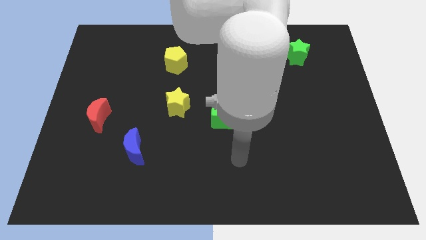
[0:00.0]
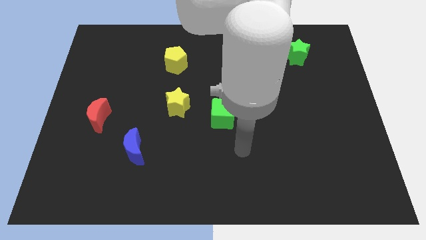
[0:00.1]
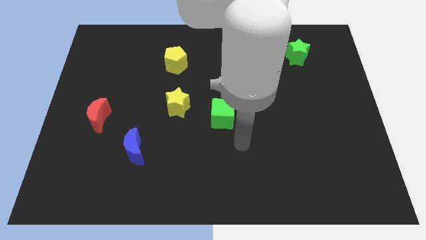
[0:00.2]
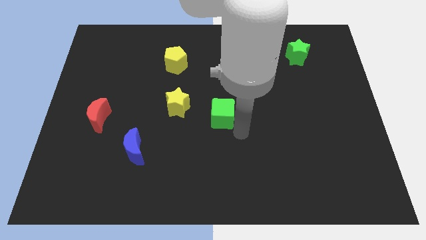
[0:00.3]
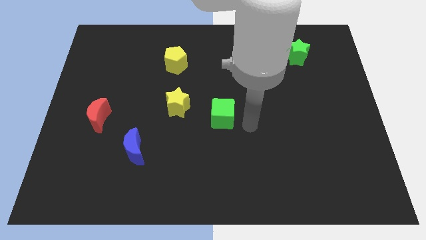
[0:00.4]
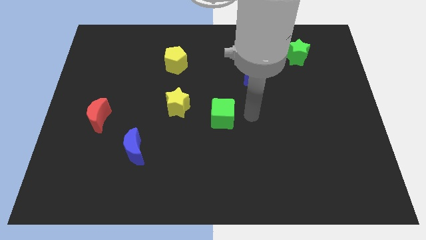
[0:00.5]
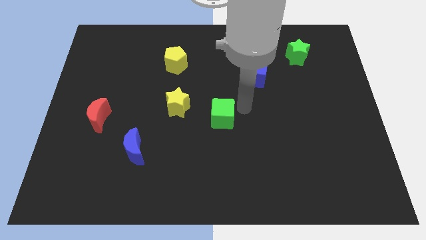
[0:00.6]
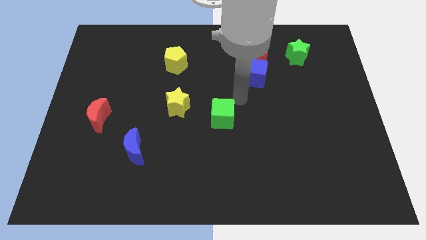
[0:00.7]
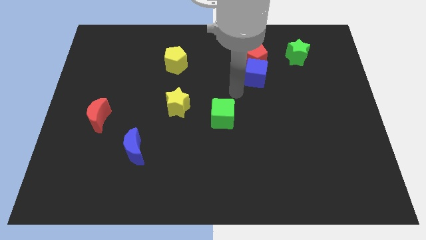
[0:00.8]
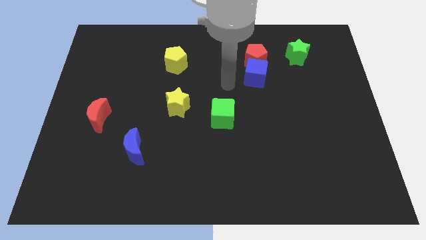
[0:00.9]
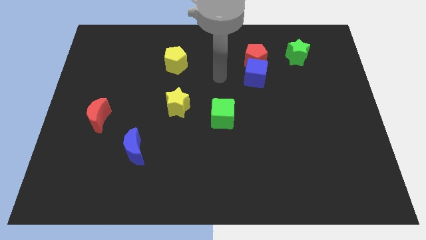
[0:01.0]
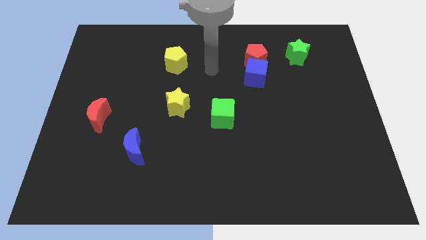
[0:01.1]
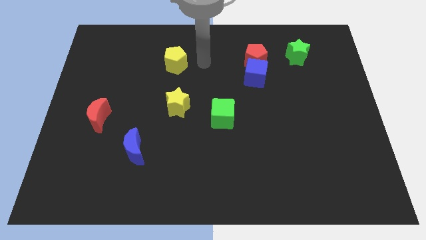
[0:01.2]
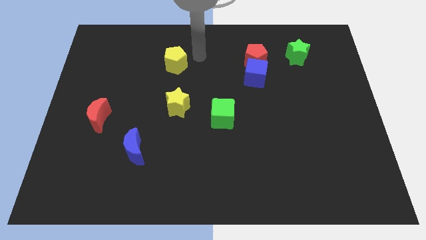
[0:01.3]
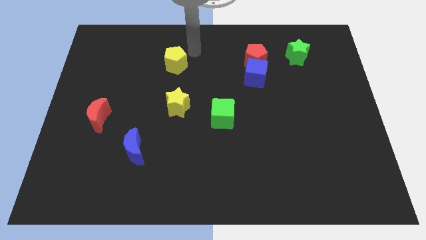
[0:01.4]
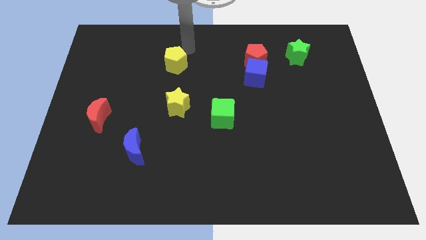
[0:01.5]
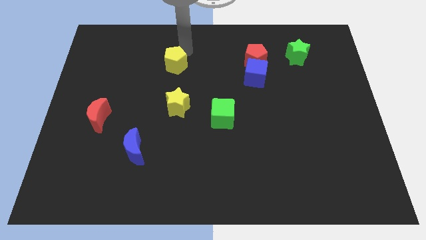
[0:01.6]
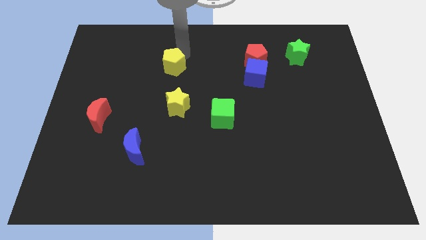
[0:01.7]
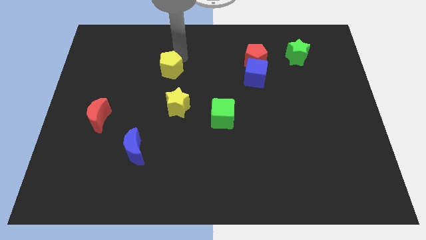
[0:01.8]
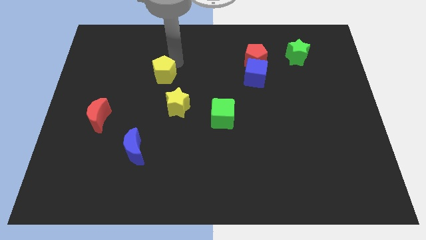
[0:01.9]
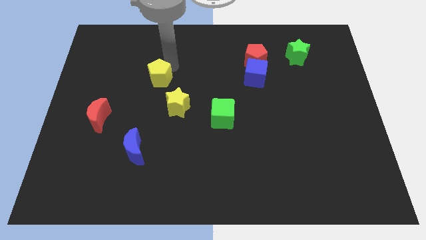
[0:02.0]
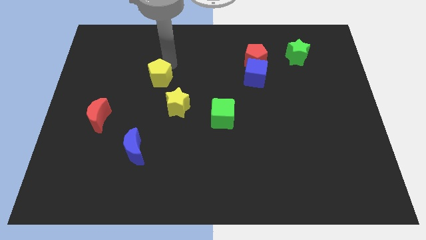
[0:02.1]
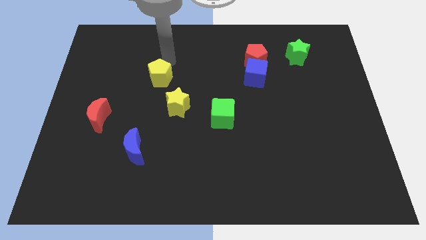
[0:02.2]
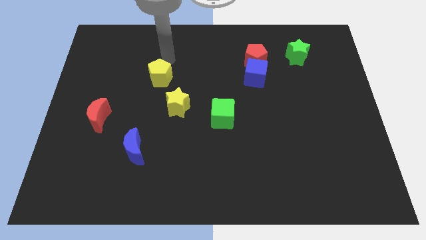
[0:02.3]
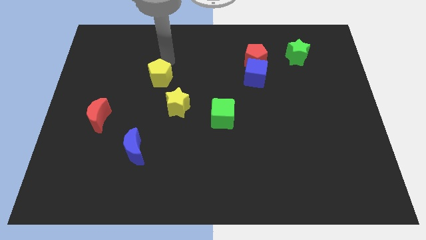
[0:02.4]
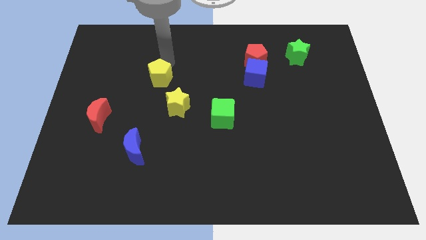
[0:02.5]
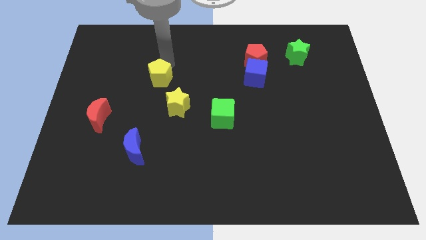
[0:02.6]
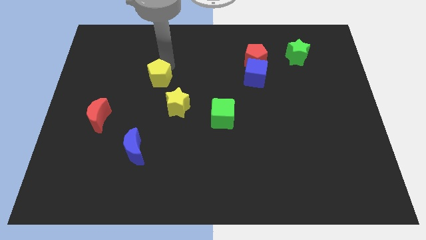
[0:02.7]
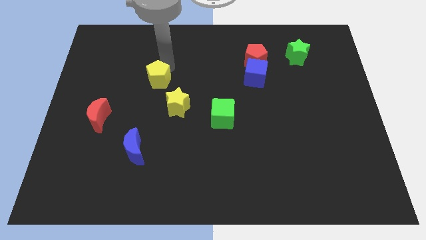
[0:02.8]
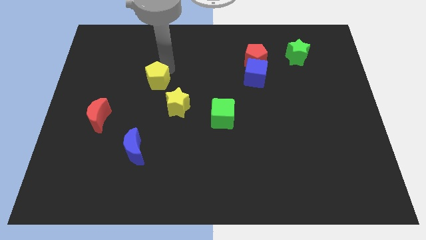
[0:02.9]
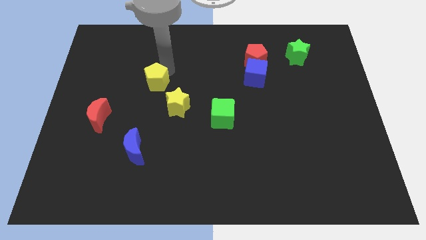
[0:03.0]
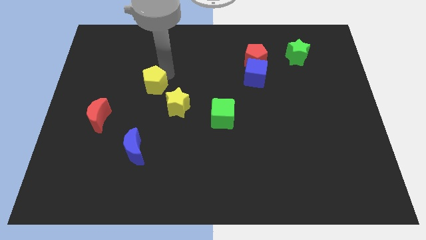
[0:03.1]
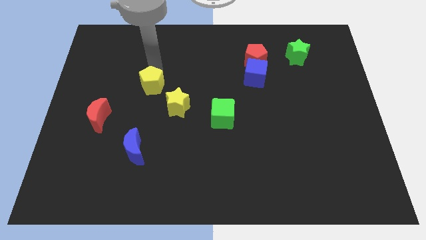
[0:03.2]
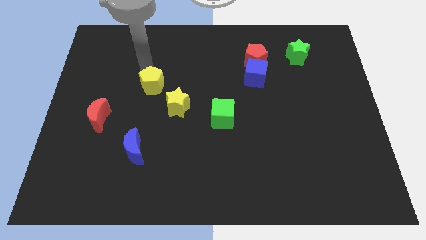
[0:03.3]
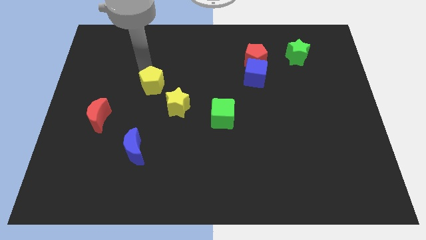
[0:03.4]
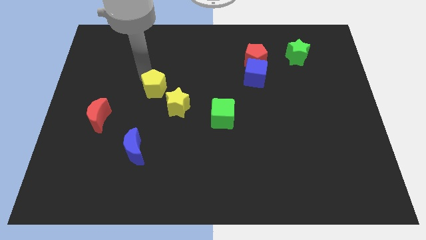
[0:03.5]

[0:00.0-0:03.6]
move the yellow pentagon a little downwards

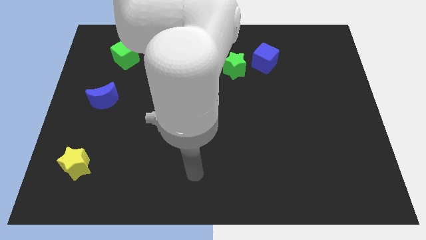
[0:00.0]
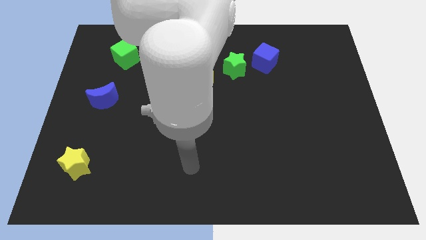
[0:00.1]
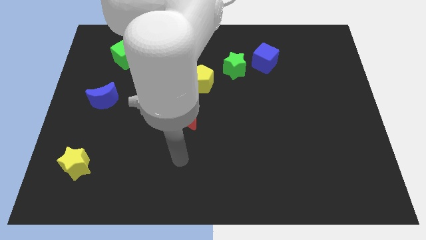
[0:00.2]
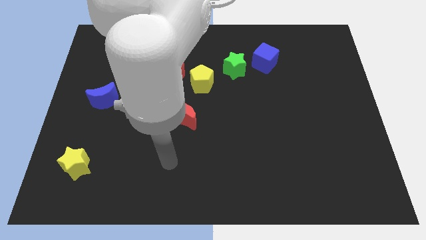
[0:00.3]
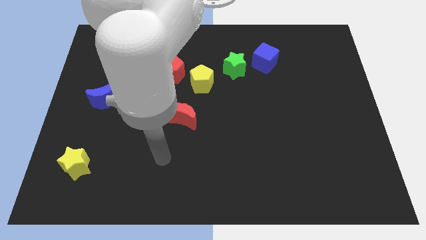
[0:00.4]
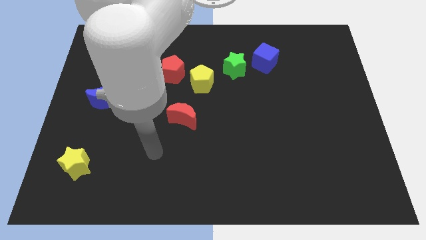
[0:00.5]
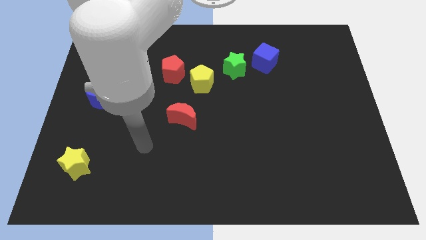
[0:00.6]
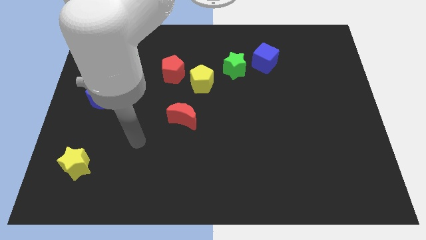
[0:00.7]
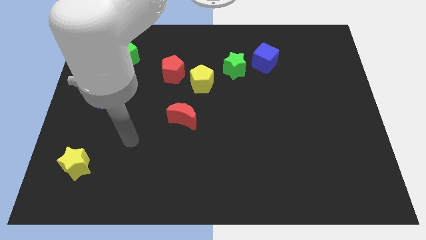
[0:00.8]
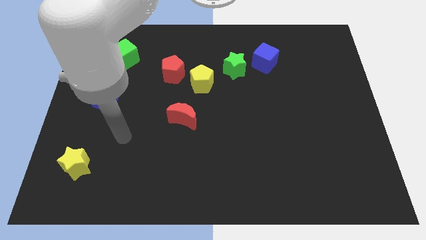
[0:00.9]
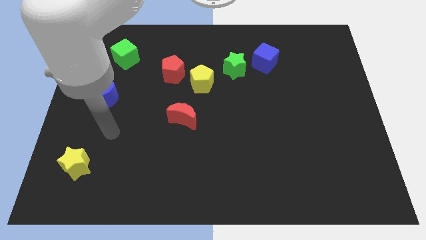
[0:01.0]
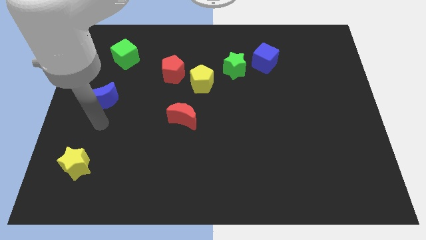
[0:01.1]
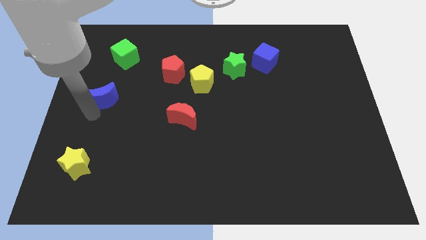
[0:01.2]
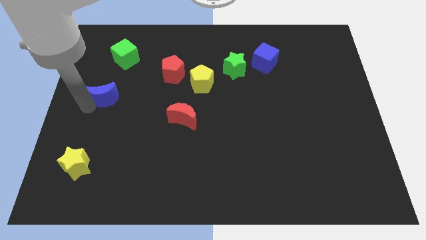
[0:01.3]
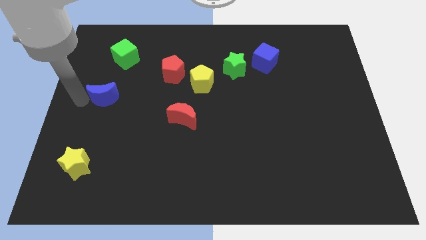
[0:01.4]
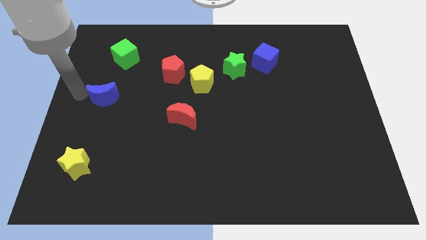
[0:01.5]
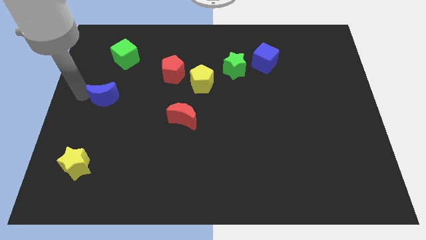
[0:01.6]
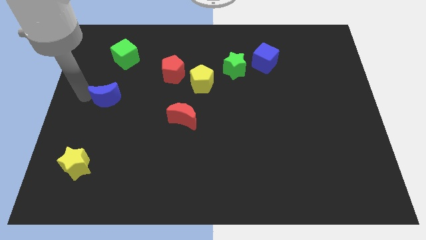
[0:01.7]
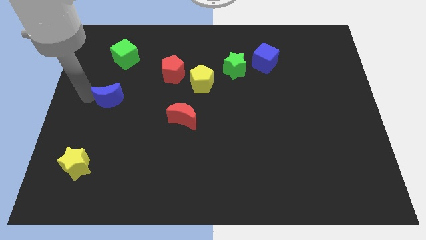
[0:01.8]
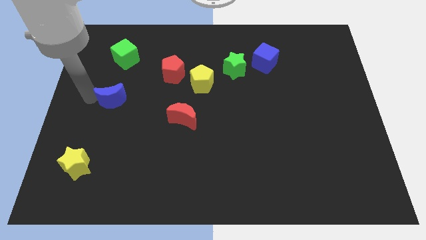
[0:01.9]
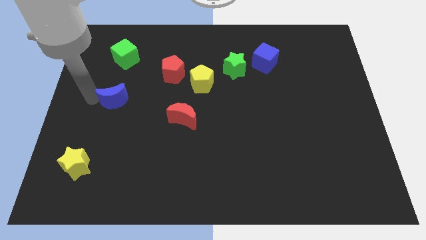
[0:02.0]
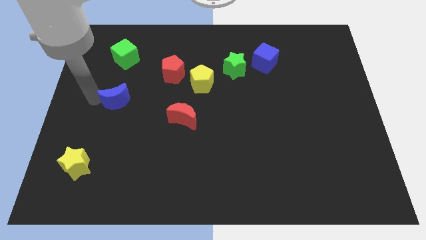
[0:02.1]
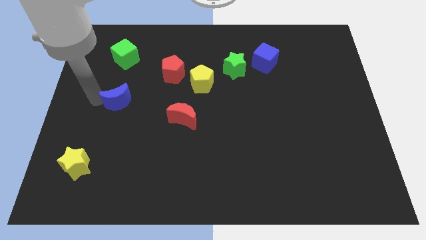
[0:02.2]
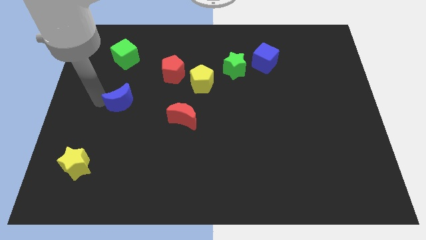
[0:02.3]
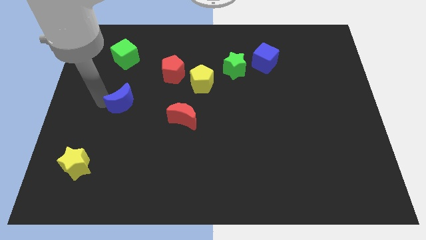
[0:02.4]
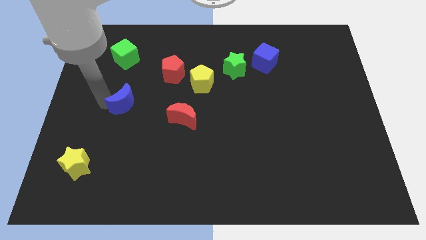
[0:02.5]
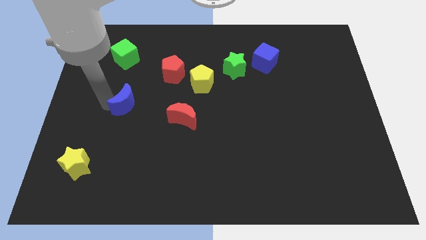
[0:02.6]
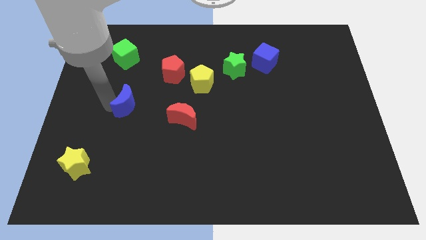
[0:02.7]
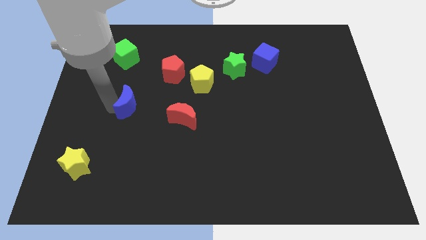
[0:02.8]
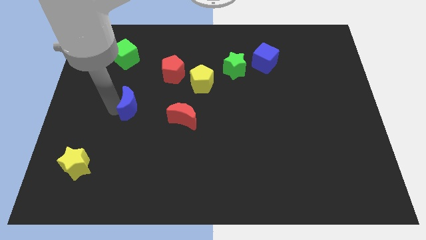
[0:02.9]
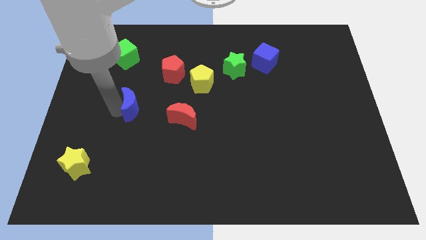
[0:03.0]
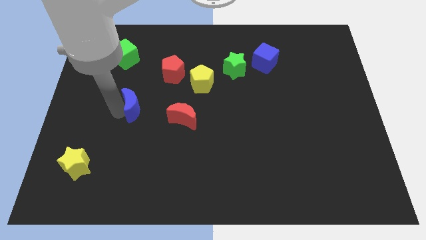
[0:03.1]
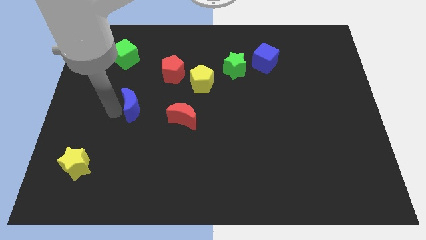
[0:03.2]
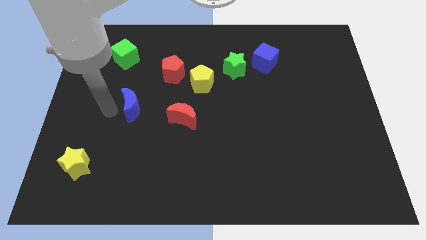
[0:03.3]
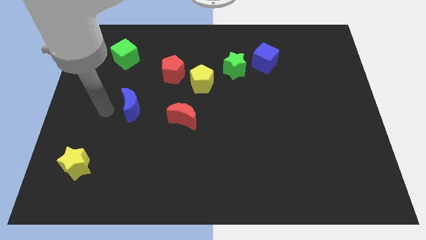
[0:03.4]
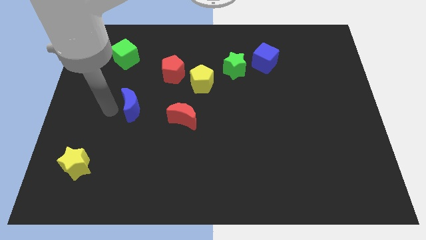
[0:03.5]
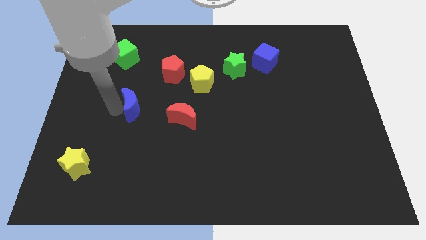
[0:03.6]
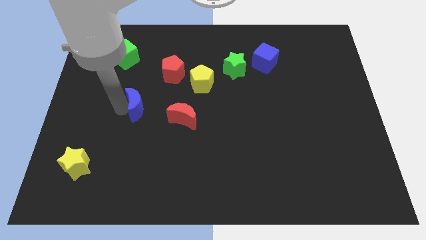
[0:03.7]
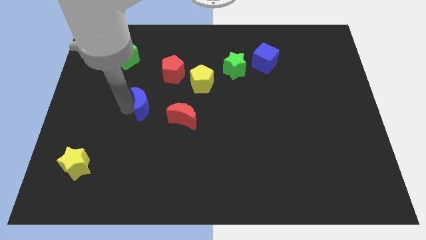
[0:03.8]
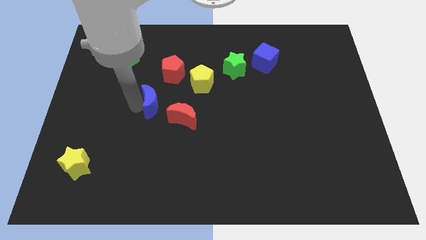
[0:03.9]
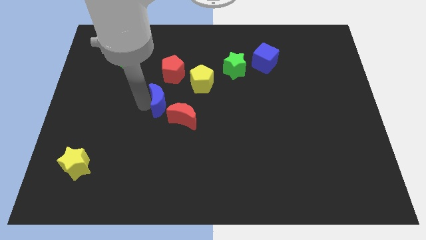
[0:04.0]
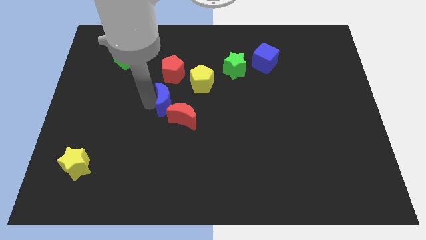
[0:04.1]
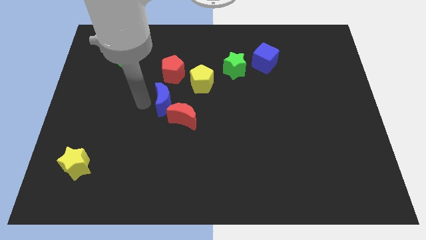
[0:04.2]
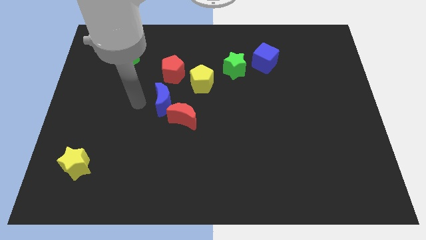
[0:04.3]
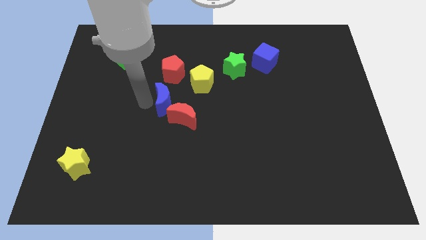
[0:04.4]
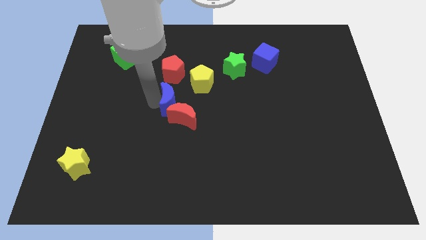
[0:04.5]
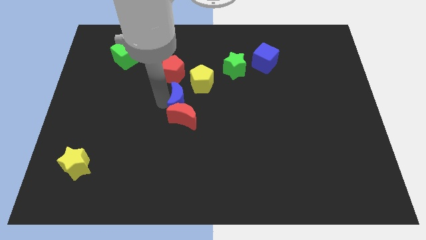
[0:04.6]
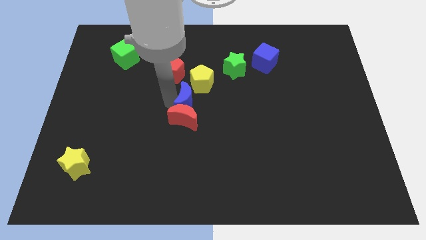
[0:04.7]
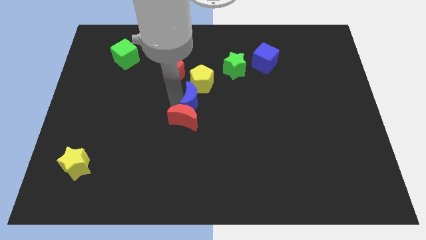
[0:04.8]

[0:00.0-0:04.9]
slide the blue moon to the right
